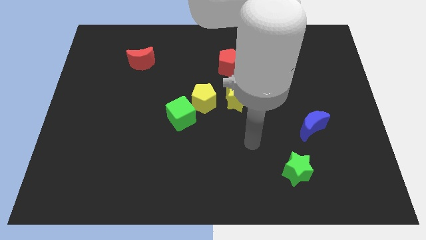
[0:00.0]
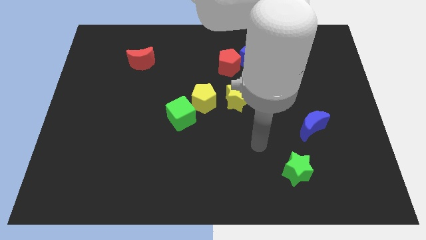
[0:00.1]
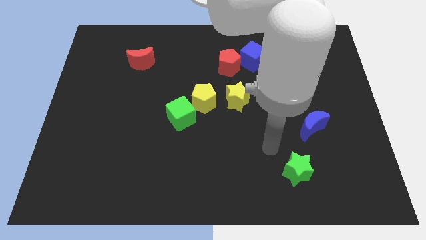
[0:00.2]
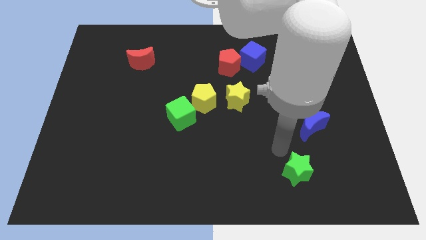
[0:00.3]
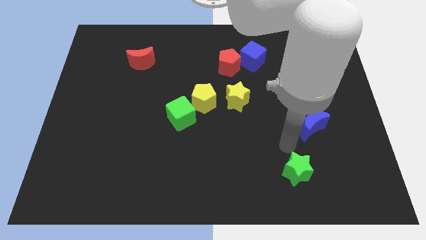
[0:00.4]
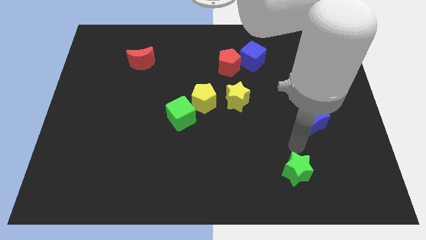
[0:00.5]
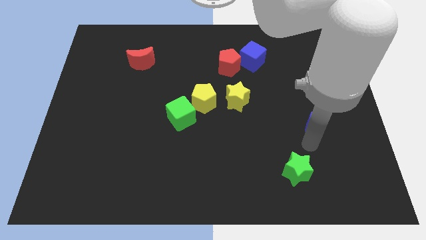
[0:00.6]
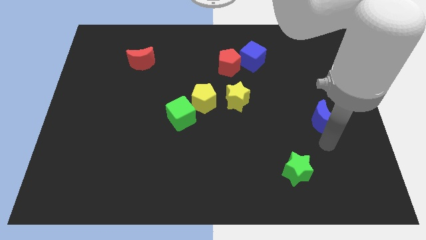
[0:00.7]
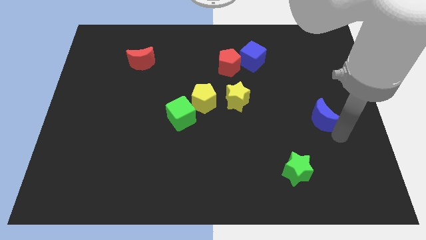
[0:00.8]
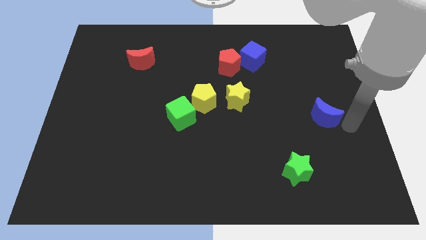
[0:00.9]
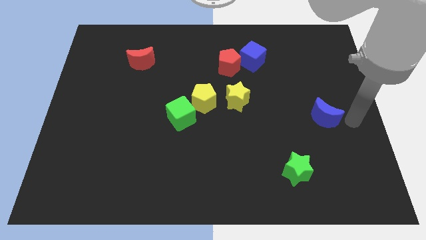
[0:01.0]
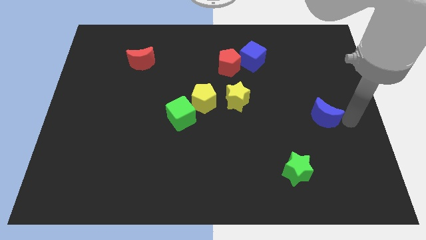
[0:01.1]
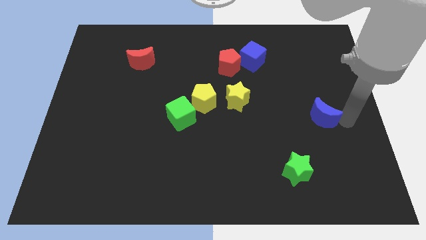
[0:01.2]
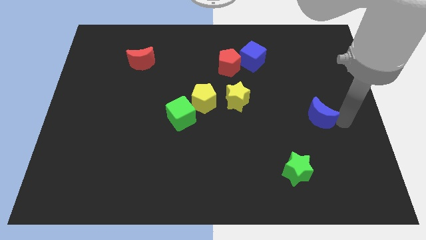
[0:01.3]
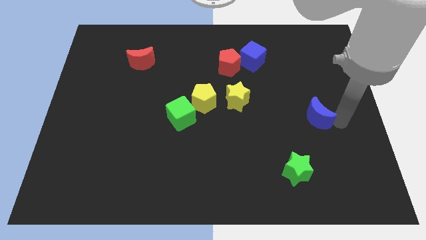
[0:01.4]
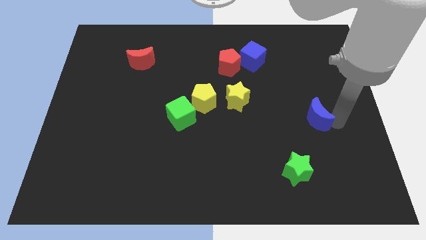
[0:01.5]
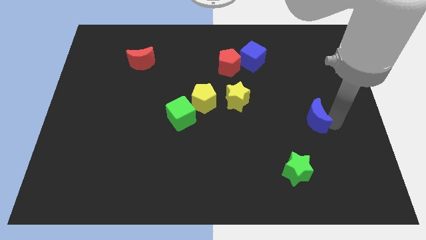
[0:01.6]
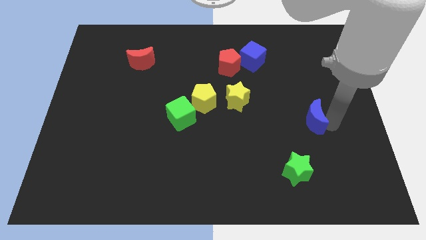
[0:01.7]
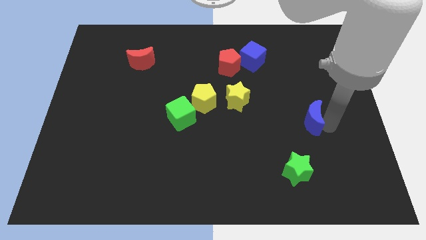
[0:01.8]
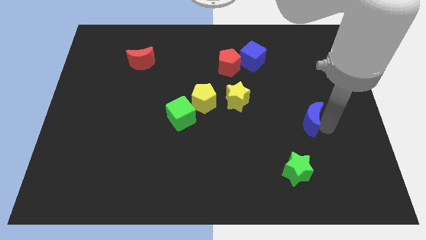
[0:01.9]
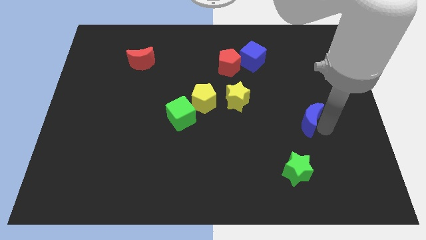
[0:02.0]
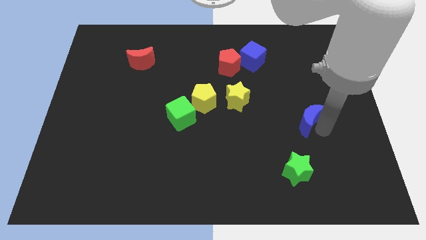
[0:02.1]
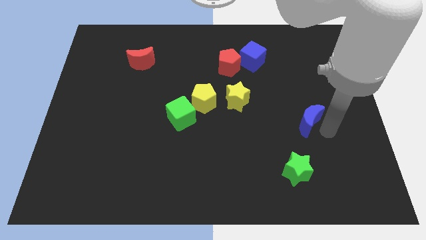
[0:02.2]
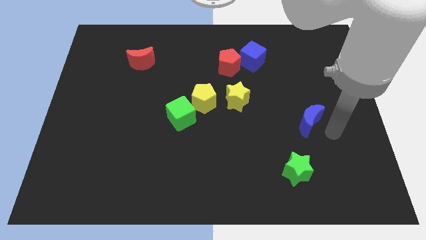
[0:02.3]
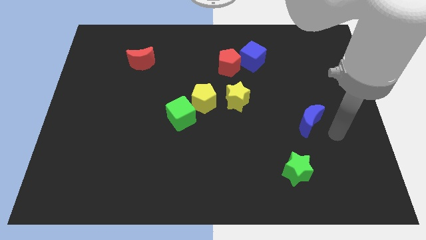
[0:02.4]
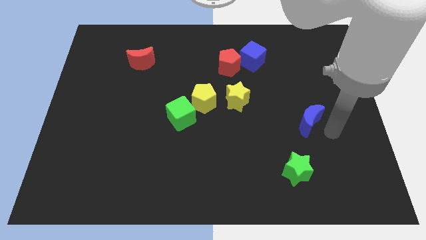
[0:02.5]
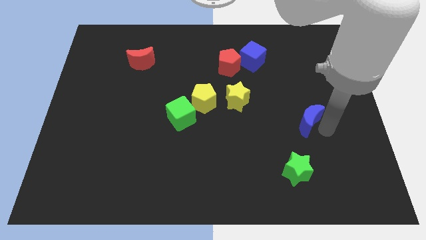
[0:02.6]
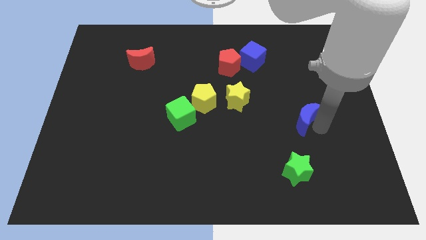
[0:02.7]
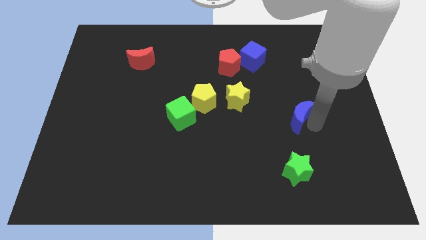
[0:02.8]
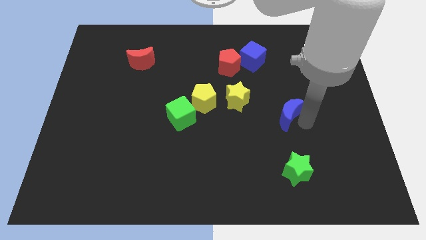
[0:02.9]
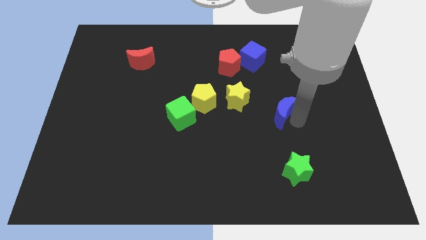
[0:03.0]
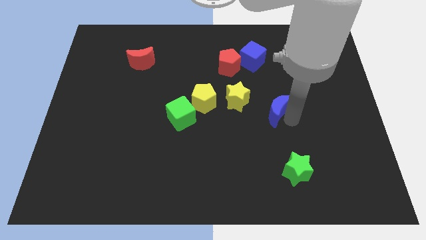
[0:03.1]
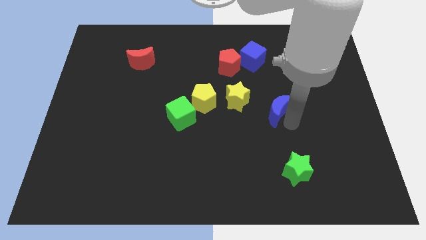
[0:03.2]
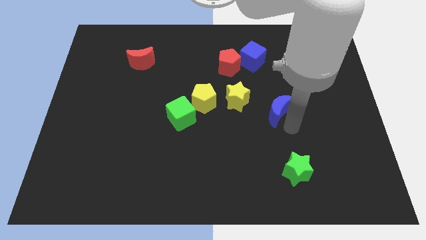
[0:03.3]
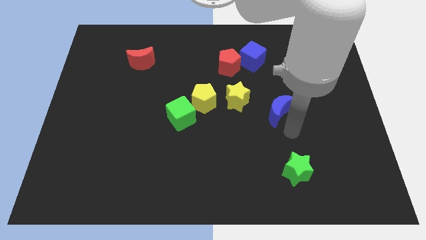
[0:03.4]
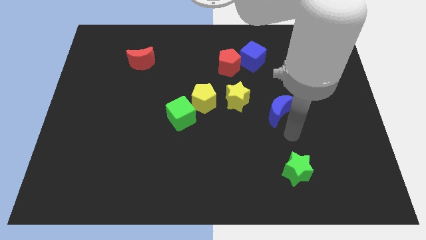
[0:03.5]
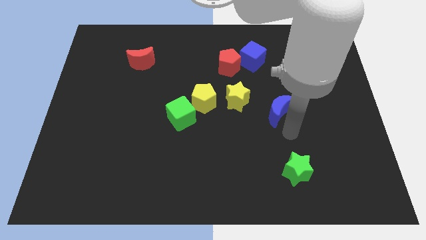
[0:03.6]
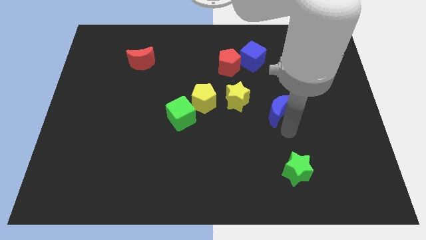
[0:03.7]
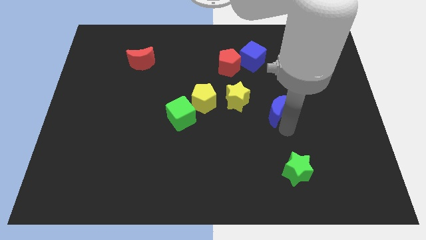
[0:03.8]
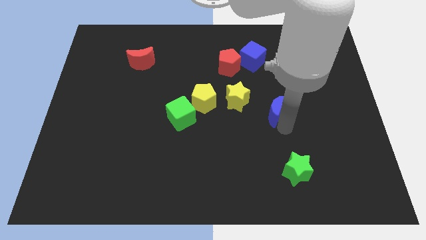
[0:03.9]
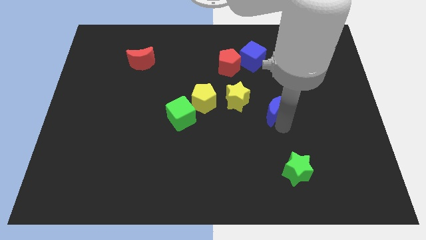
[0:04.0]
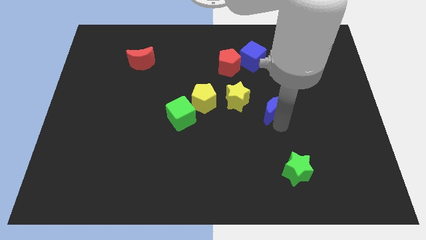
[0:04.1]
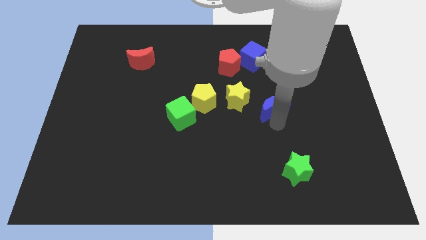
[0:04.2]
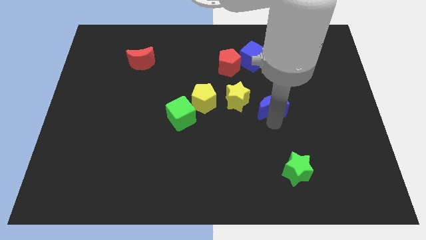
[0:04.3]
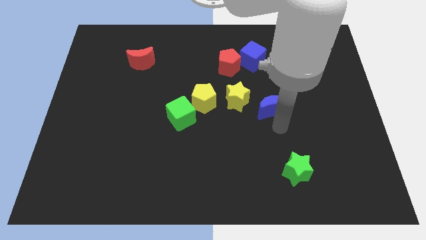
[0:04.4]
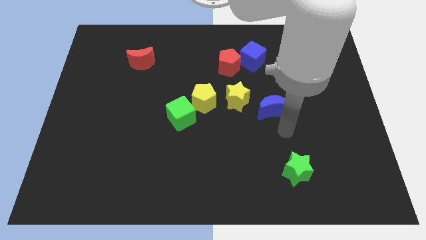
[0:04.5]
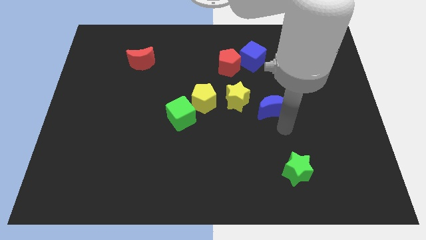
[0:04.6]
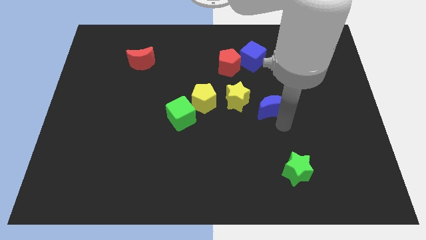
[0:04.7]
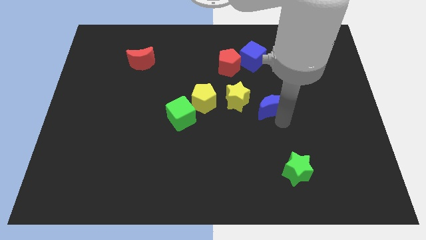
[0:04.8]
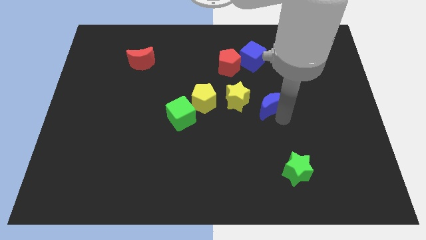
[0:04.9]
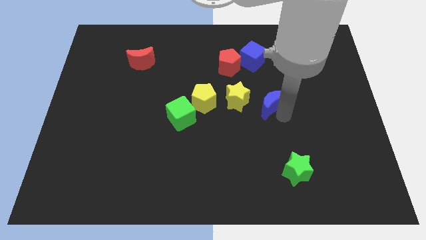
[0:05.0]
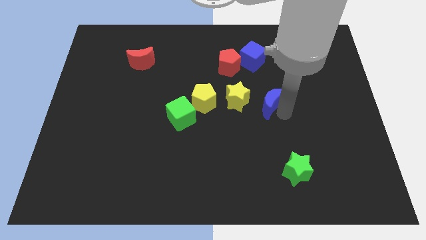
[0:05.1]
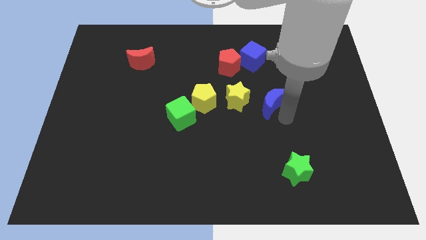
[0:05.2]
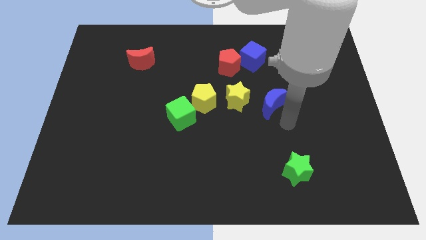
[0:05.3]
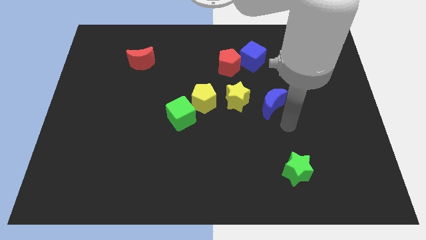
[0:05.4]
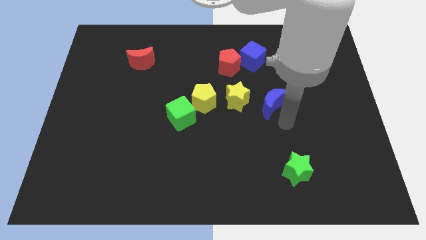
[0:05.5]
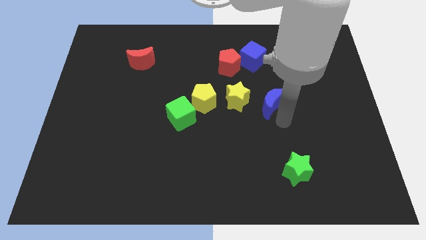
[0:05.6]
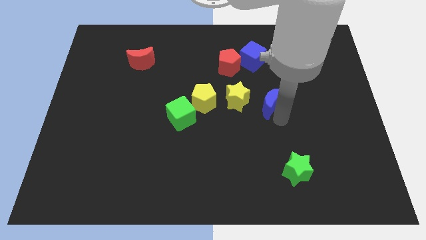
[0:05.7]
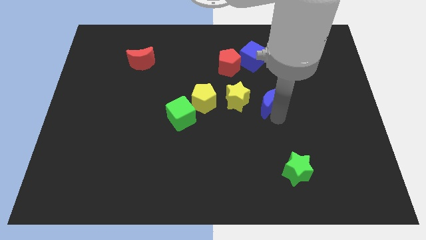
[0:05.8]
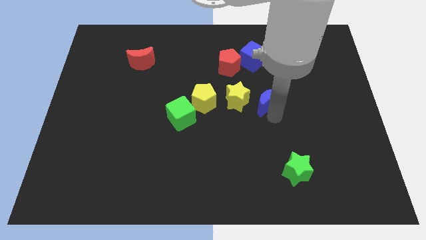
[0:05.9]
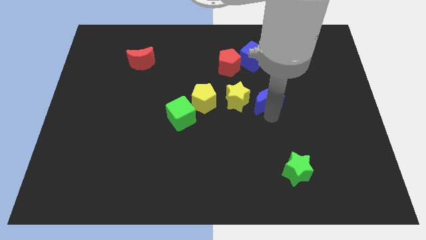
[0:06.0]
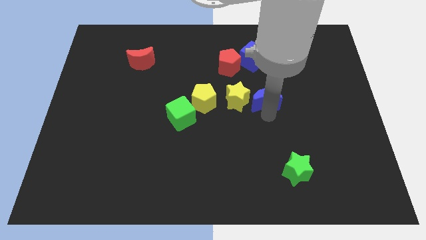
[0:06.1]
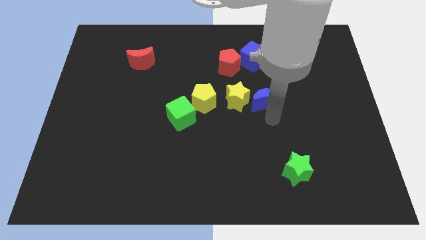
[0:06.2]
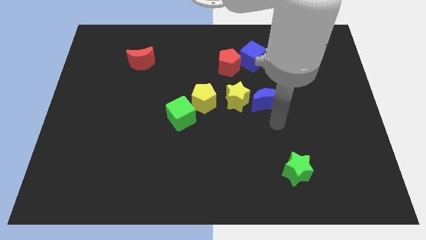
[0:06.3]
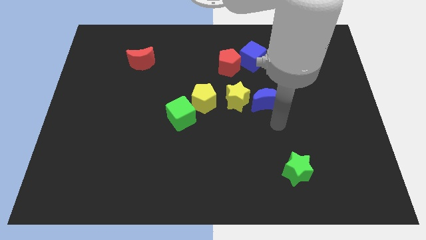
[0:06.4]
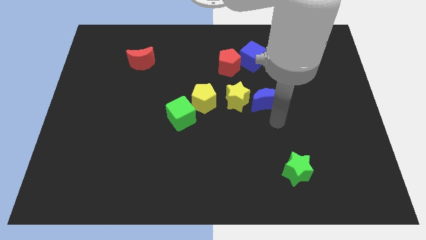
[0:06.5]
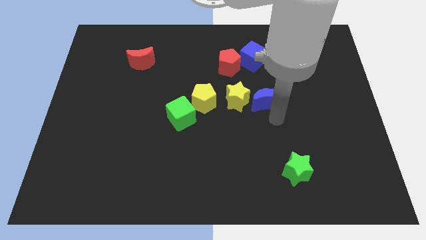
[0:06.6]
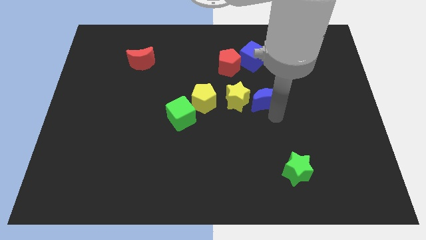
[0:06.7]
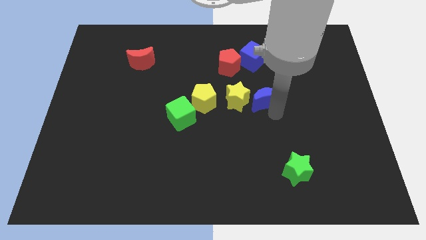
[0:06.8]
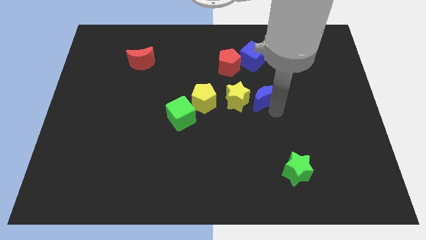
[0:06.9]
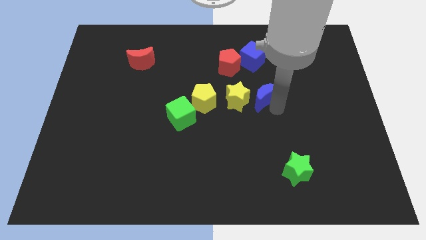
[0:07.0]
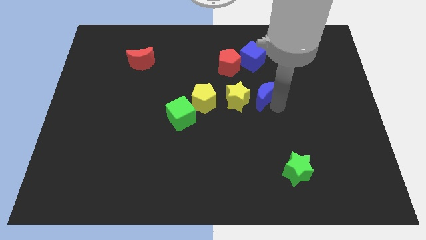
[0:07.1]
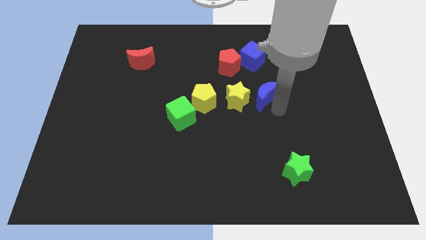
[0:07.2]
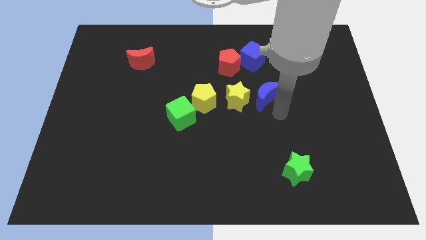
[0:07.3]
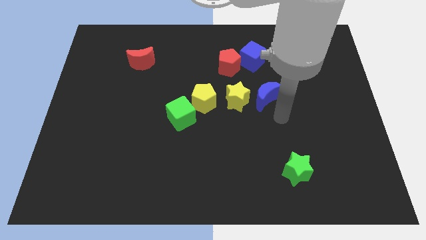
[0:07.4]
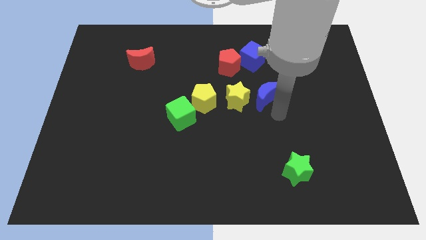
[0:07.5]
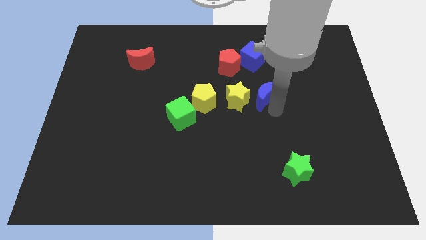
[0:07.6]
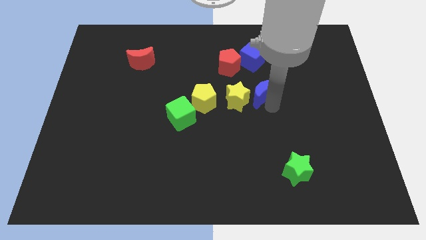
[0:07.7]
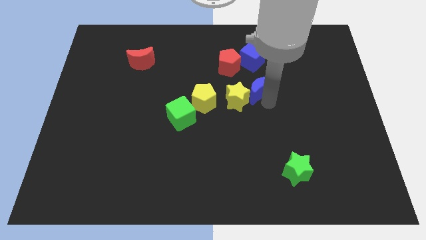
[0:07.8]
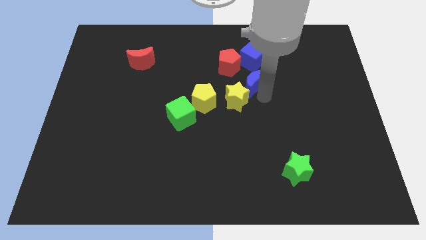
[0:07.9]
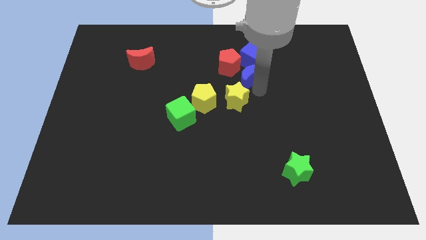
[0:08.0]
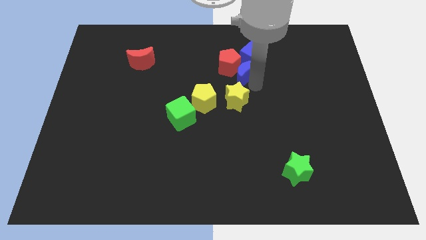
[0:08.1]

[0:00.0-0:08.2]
put the blue moon to the red pentagon
